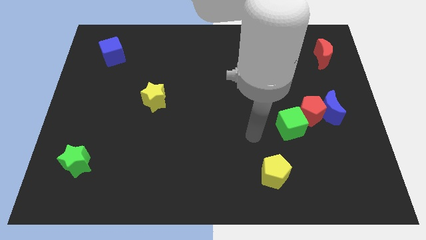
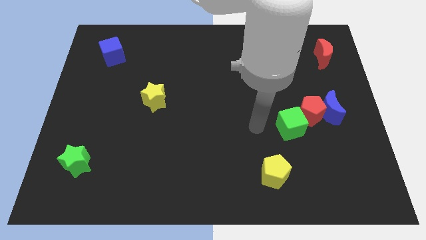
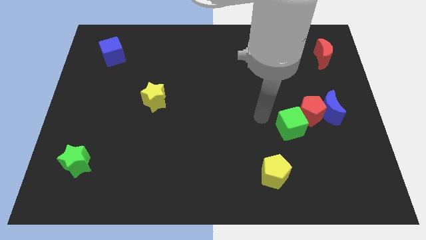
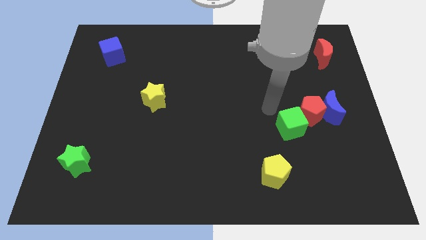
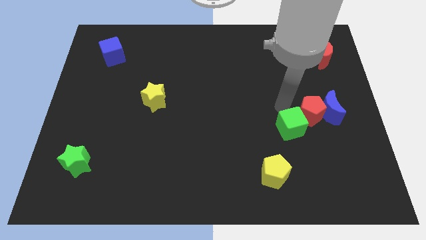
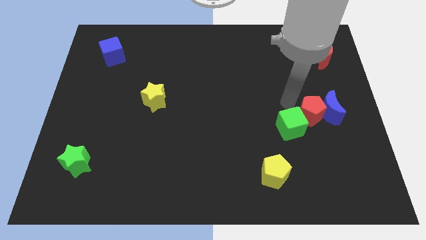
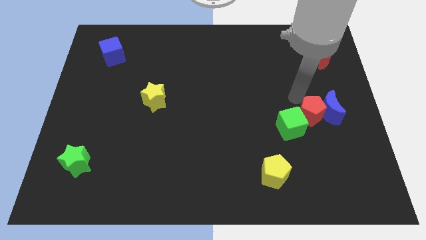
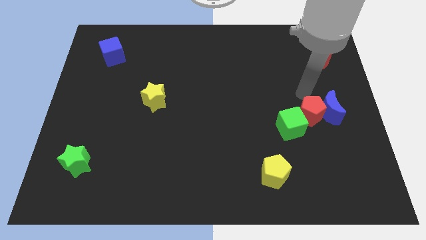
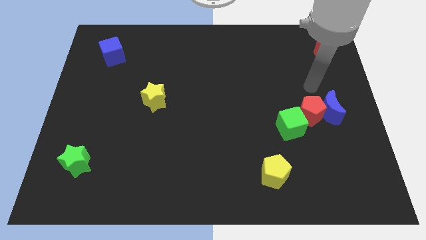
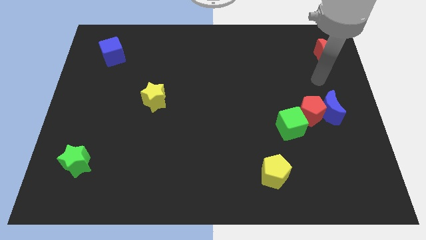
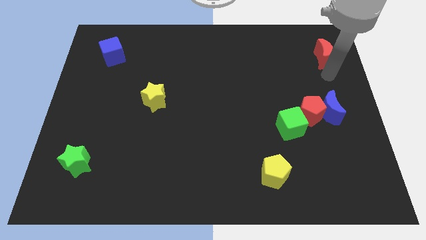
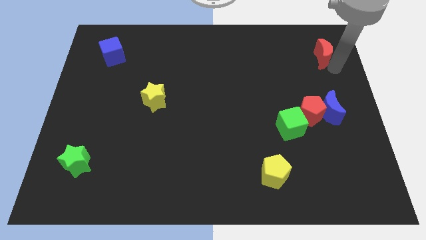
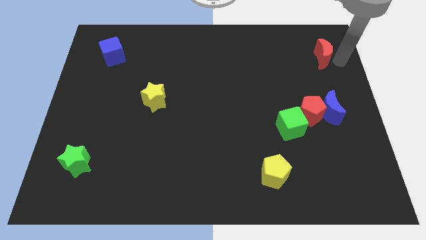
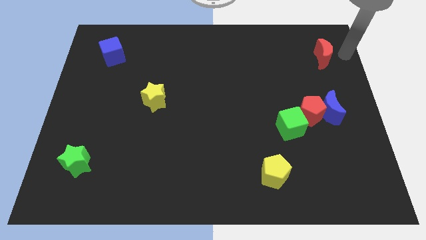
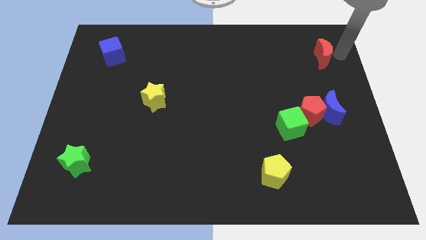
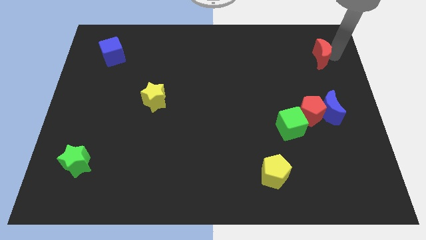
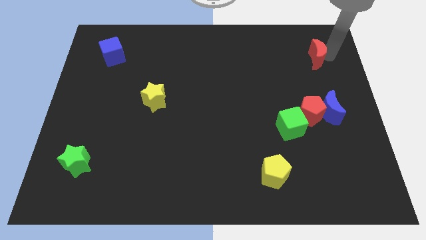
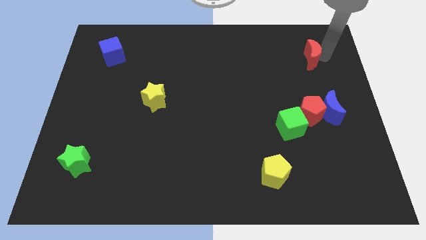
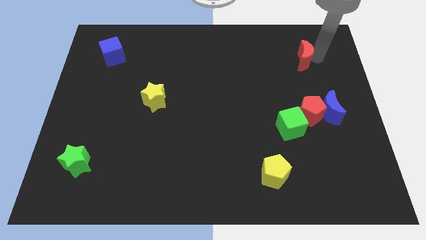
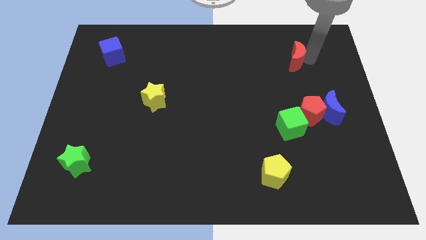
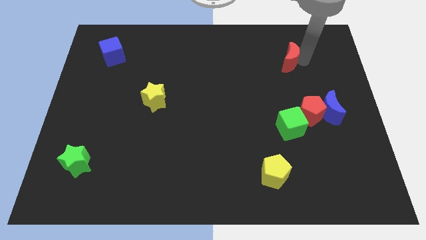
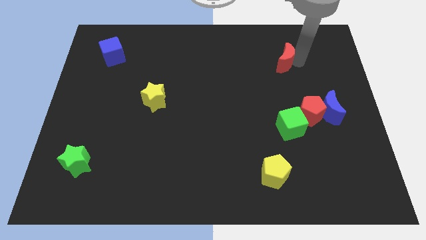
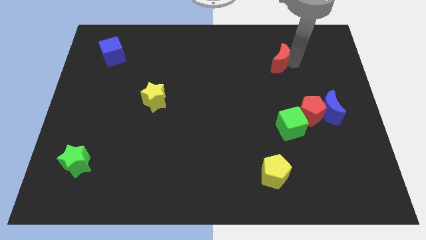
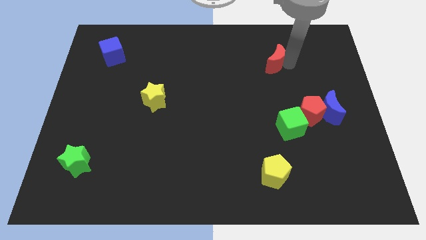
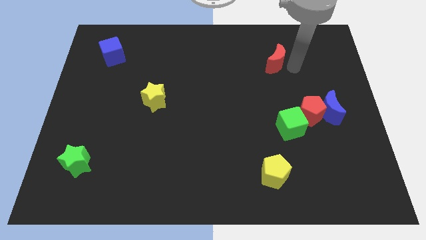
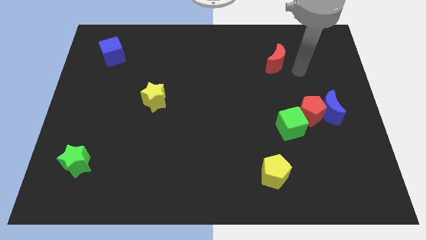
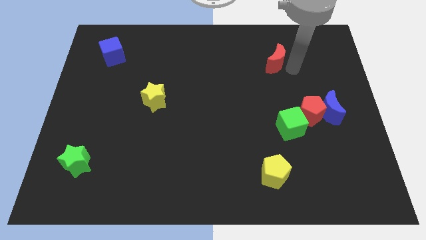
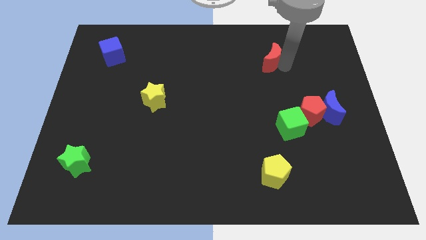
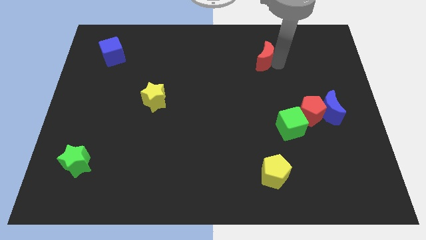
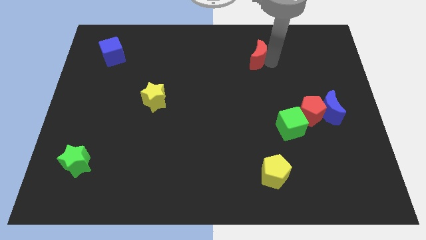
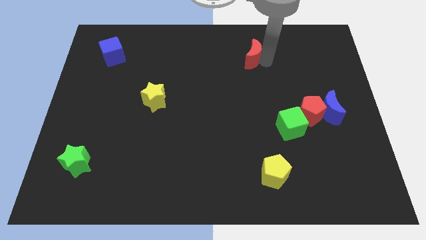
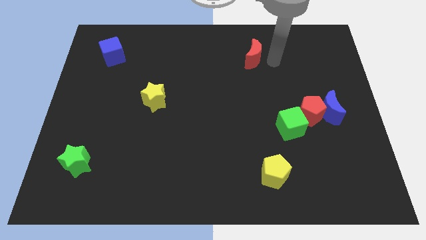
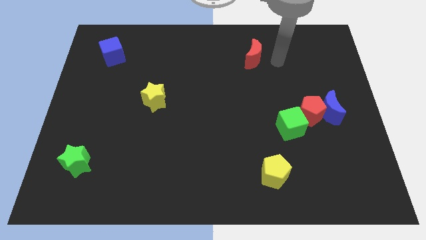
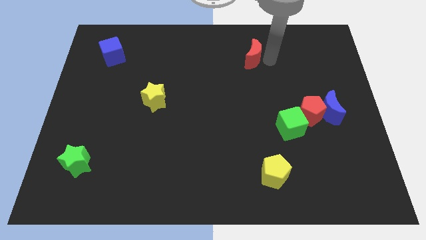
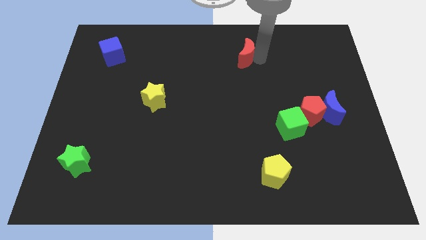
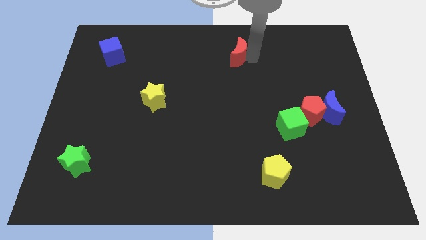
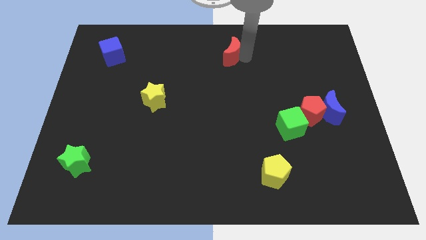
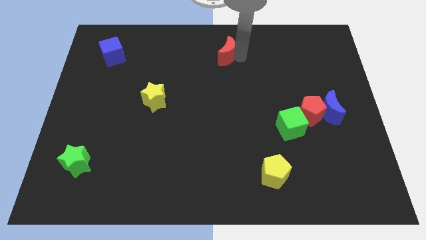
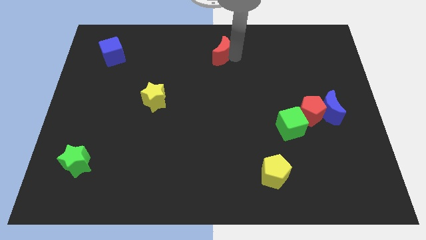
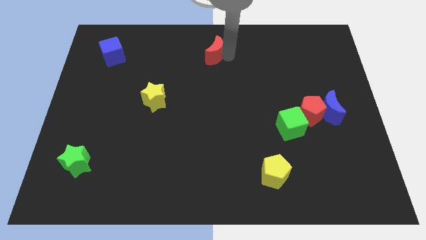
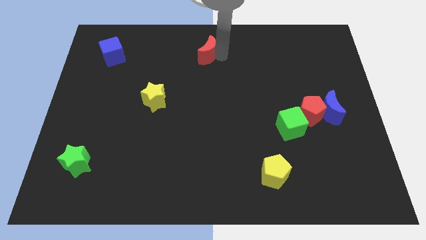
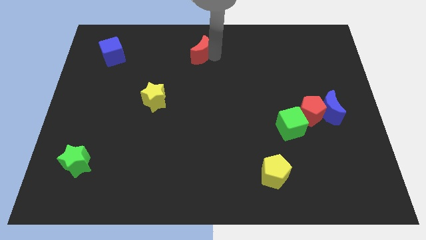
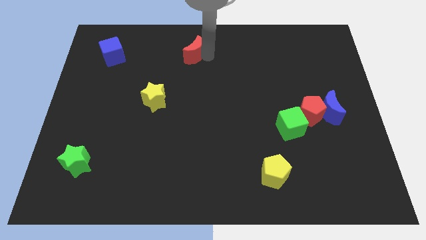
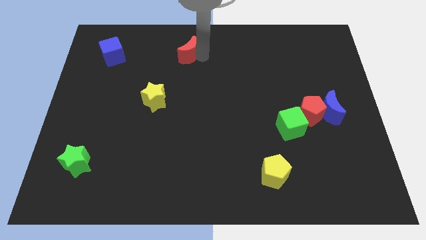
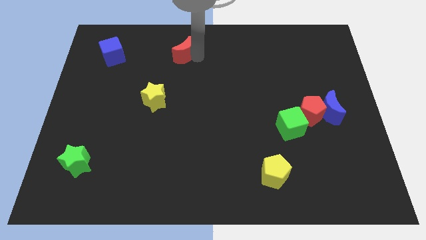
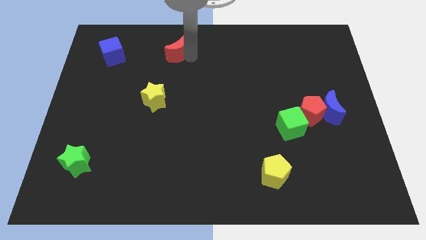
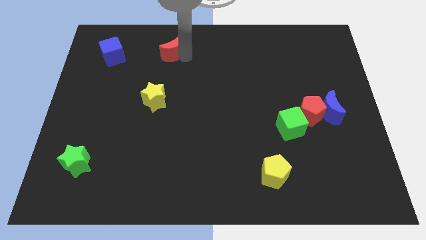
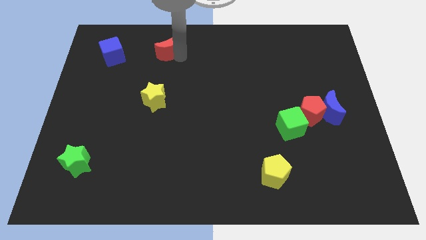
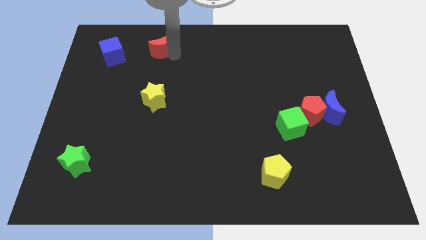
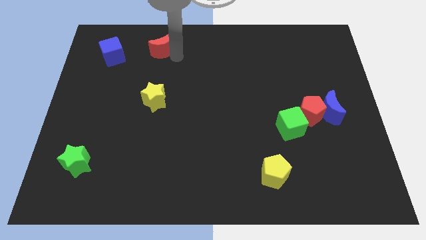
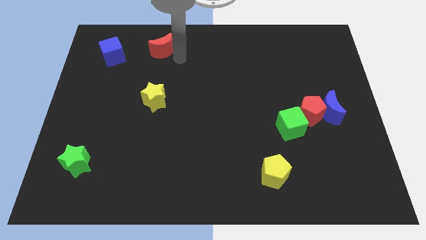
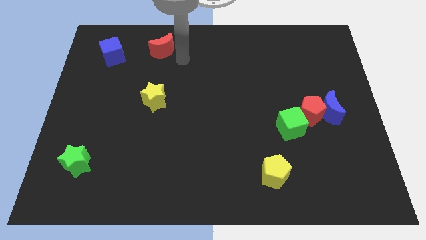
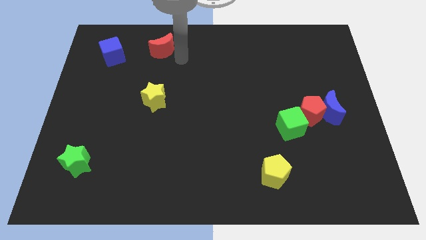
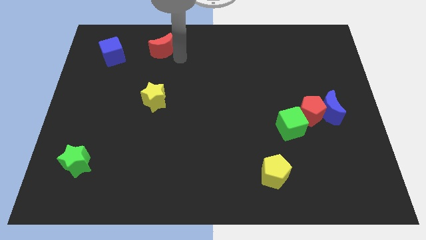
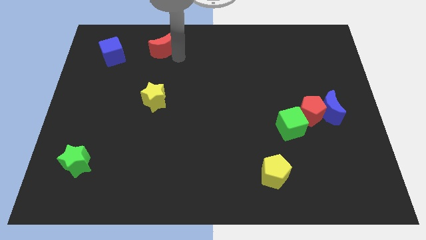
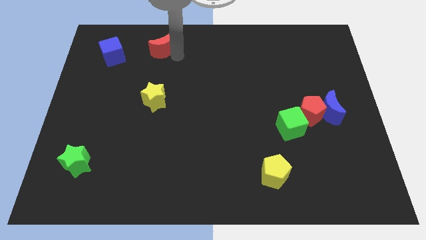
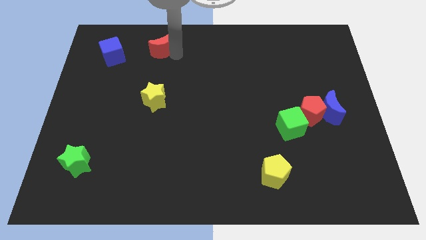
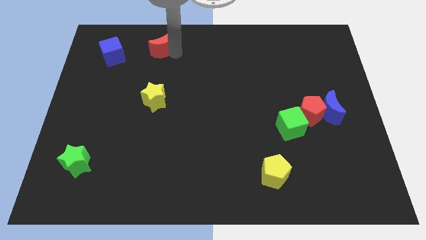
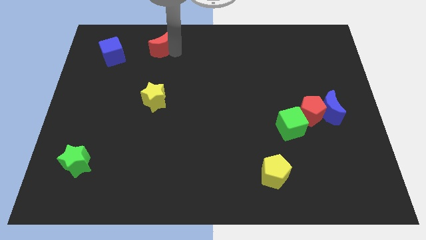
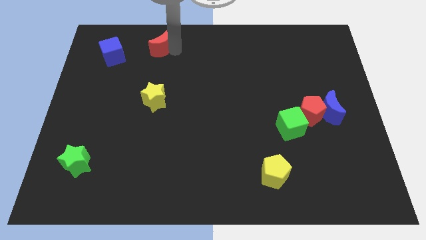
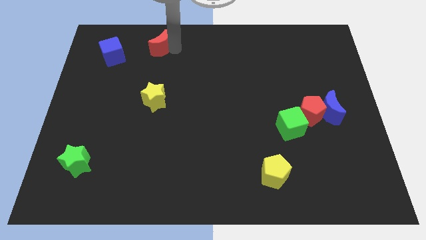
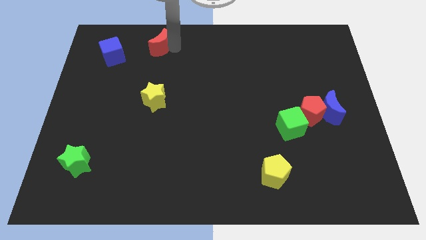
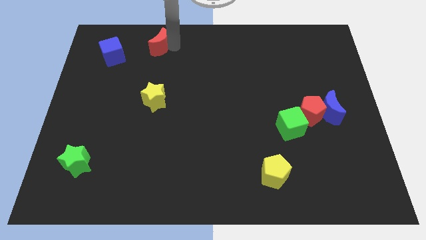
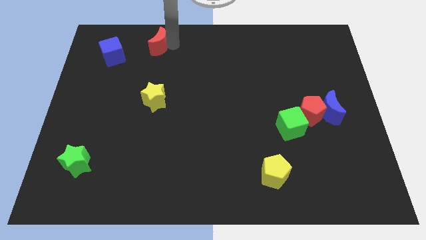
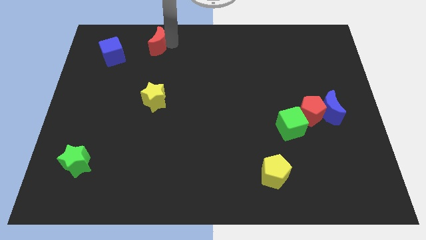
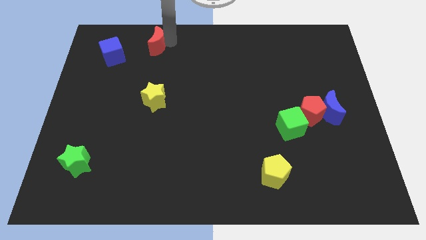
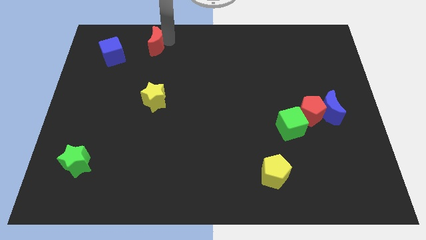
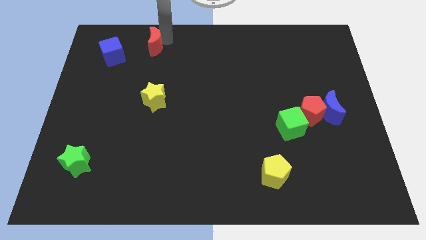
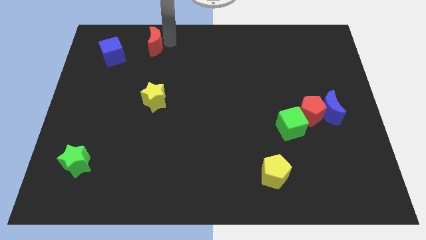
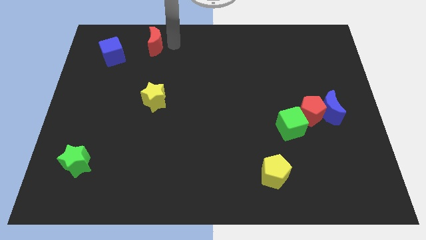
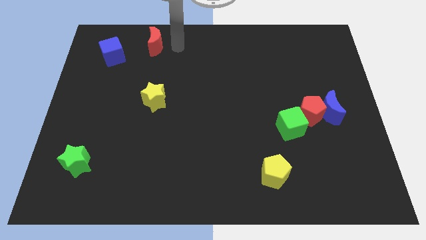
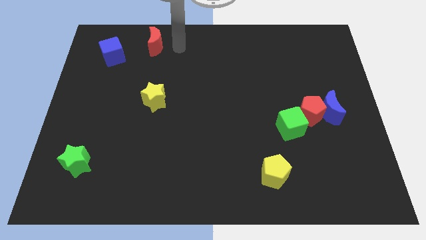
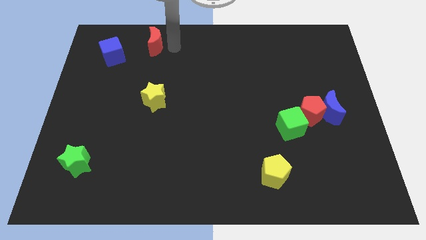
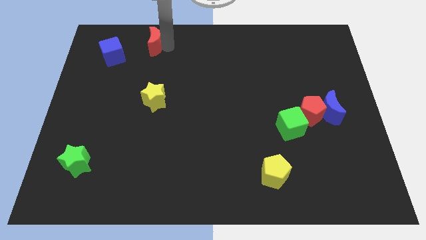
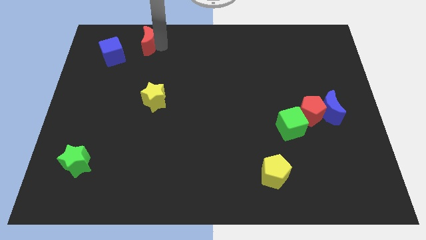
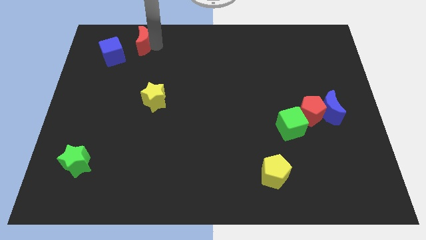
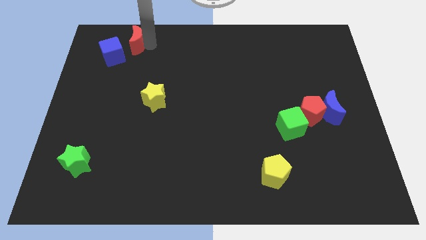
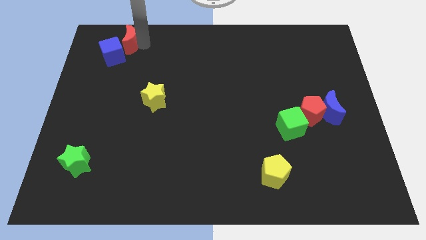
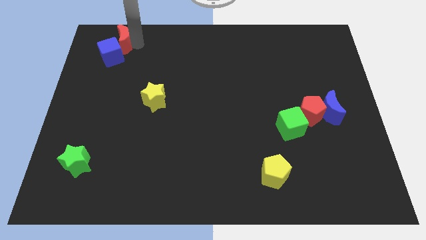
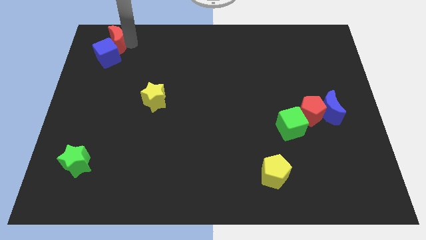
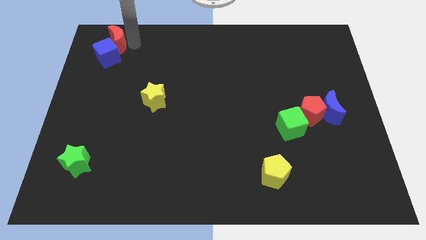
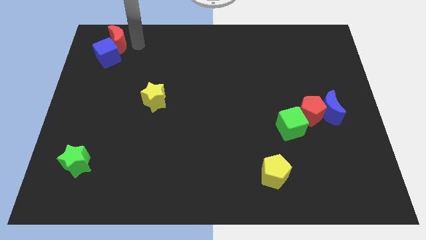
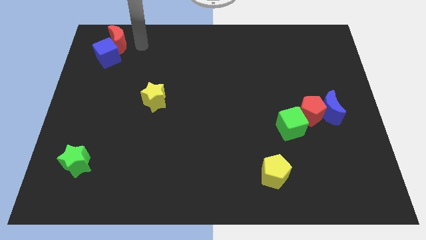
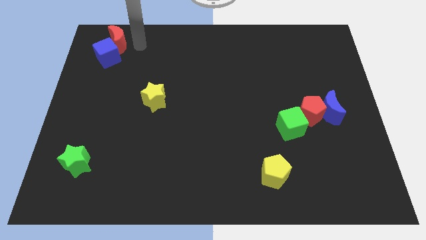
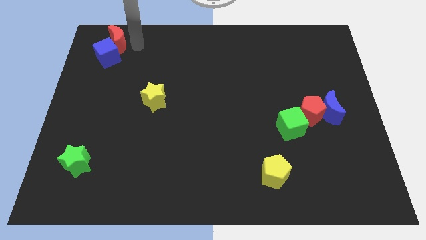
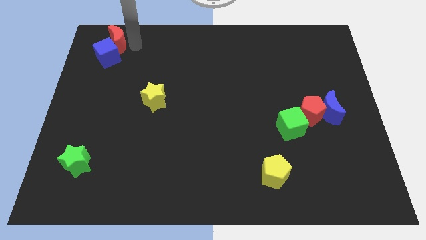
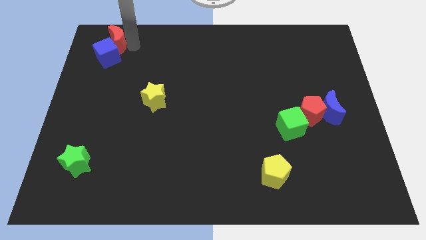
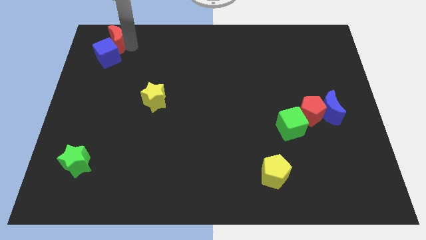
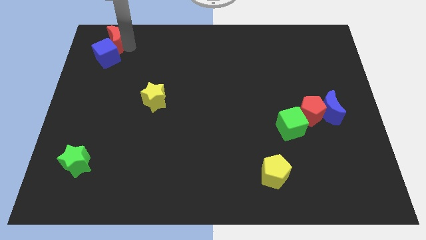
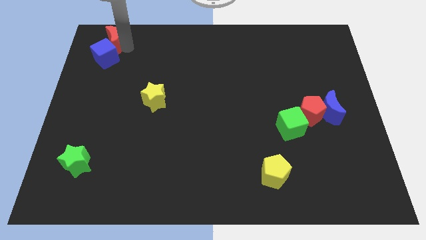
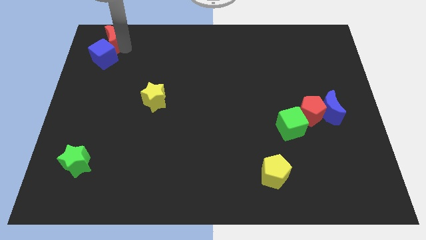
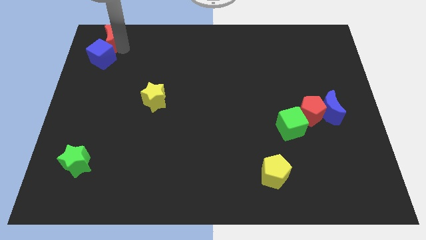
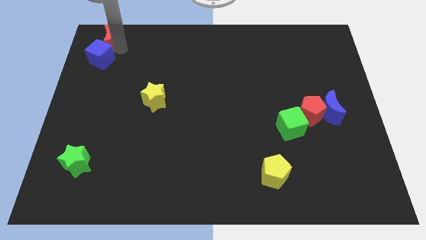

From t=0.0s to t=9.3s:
push the red moon to the top left corner
